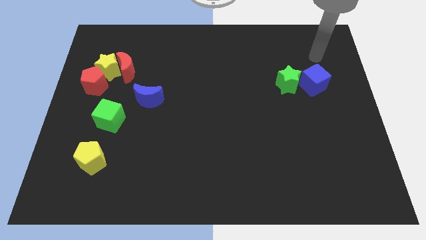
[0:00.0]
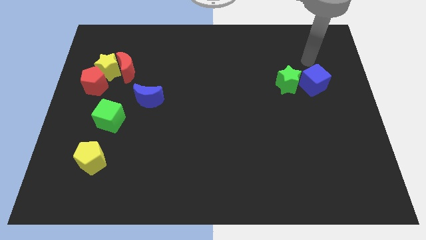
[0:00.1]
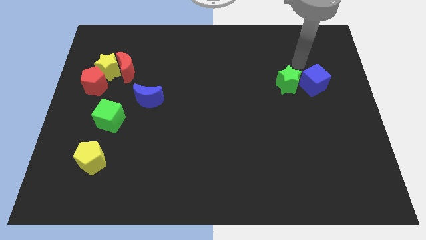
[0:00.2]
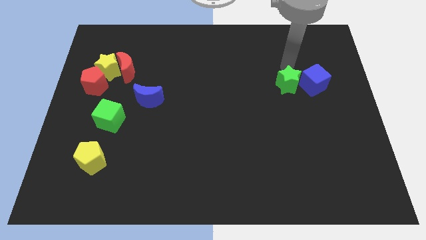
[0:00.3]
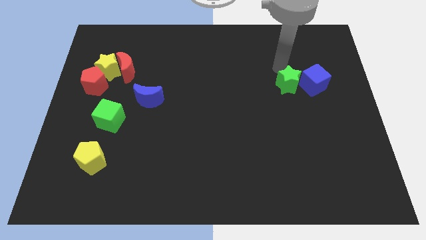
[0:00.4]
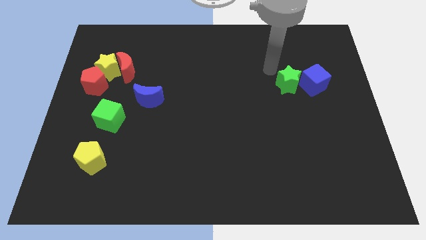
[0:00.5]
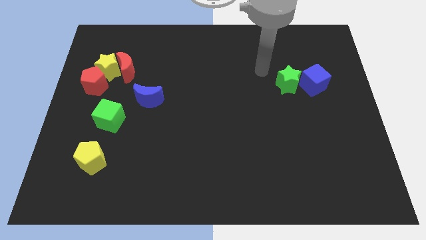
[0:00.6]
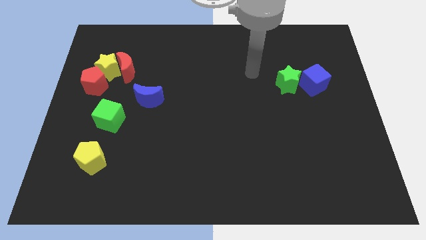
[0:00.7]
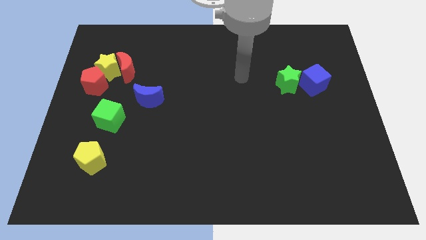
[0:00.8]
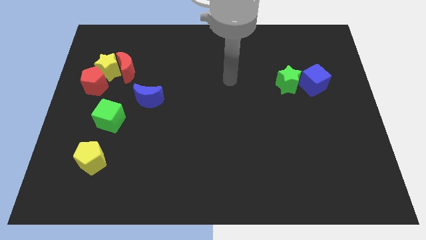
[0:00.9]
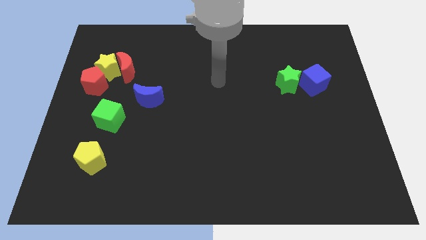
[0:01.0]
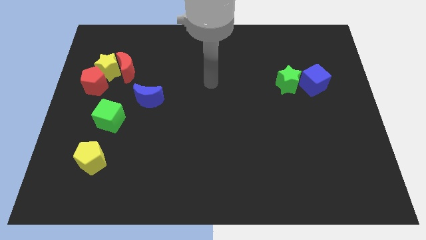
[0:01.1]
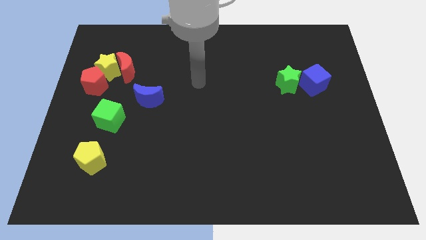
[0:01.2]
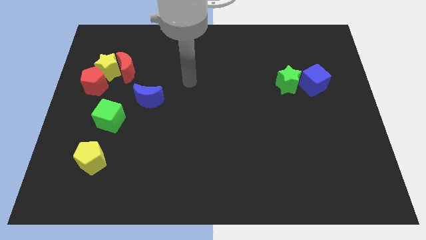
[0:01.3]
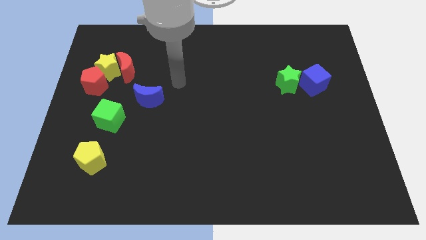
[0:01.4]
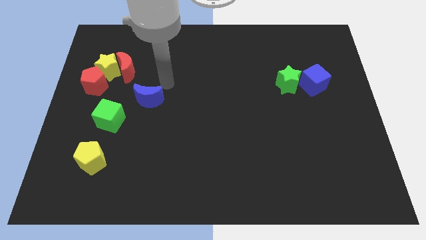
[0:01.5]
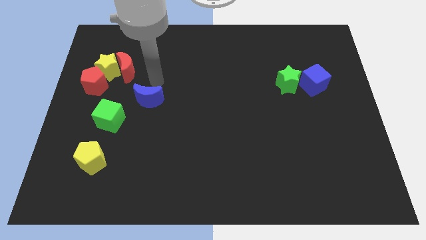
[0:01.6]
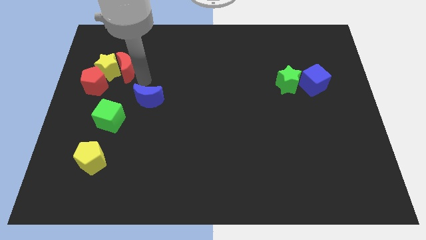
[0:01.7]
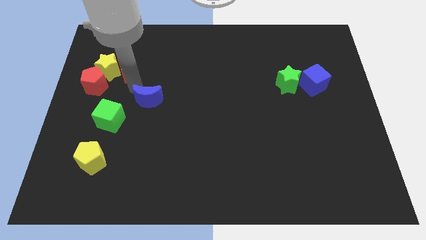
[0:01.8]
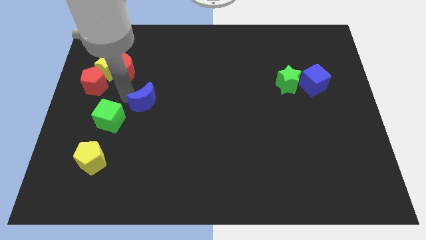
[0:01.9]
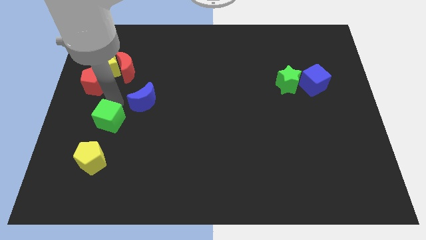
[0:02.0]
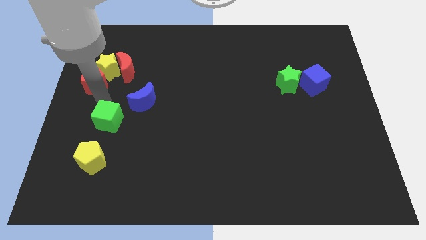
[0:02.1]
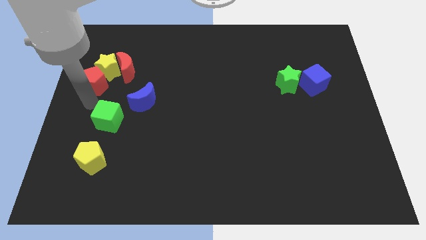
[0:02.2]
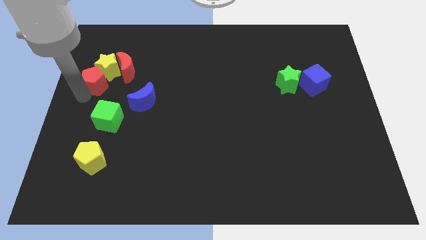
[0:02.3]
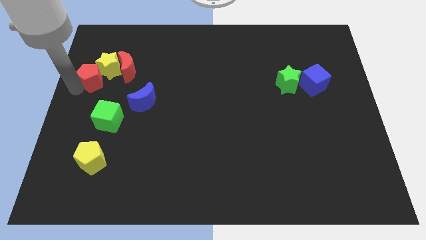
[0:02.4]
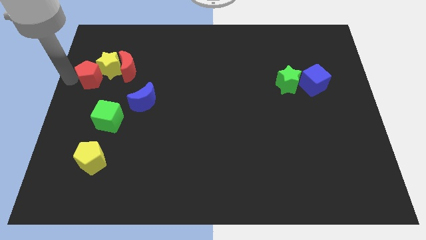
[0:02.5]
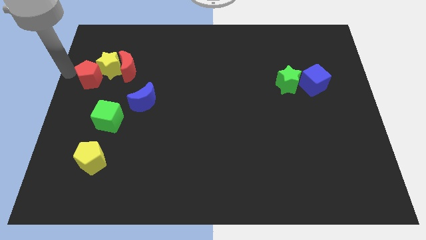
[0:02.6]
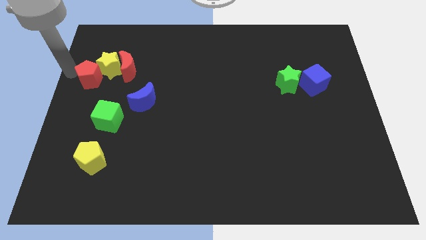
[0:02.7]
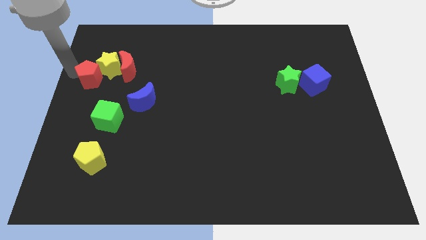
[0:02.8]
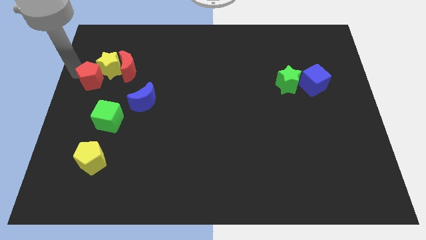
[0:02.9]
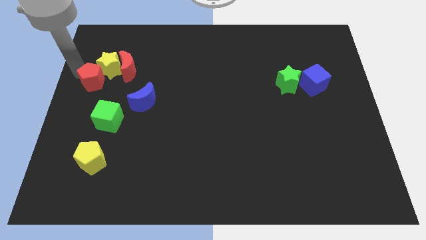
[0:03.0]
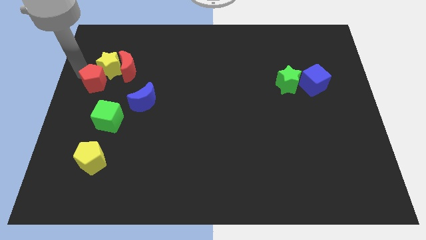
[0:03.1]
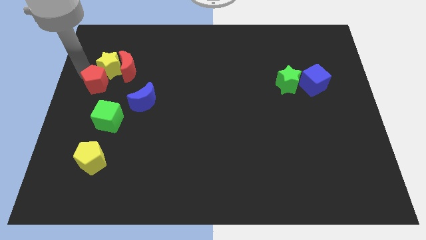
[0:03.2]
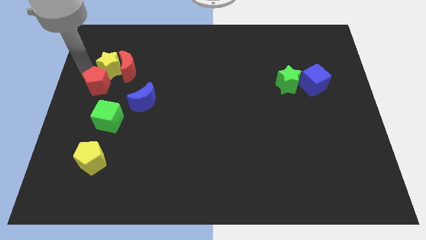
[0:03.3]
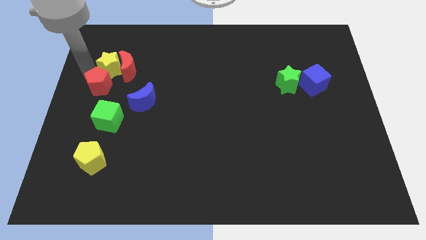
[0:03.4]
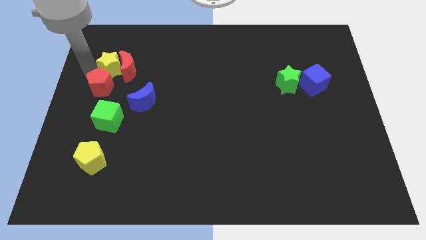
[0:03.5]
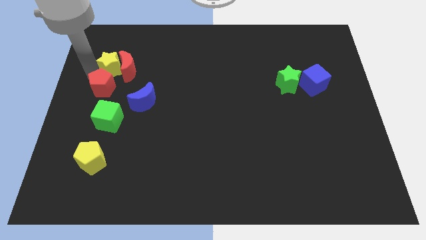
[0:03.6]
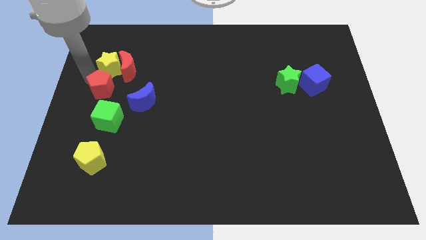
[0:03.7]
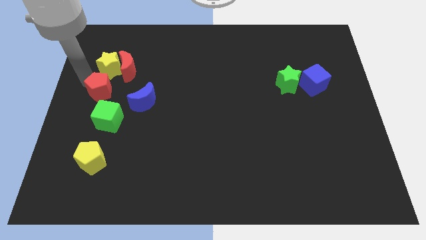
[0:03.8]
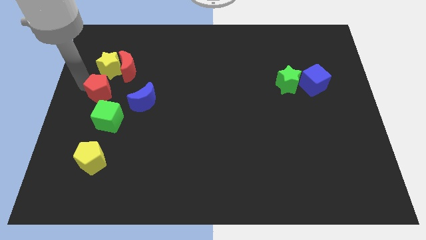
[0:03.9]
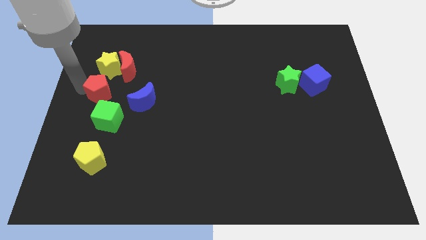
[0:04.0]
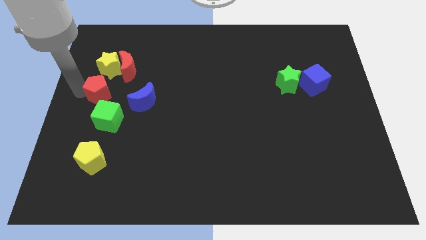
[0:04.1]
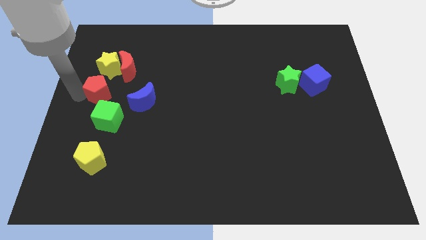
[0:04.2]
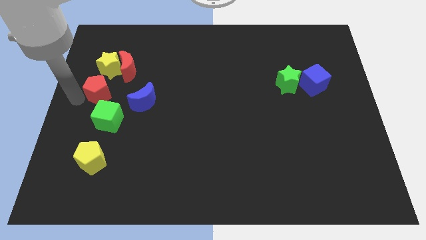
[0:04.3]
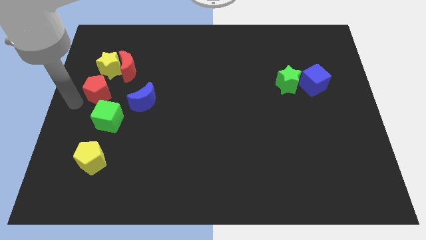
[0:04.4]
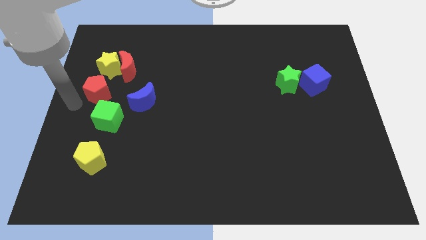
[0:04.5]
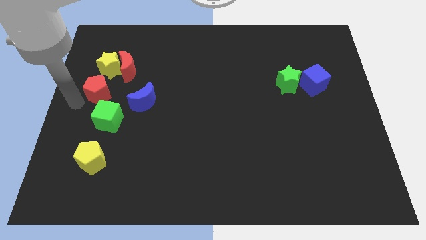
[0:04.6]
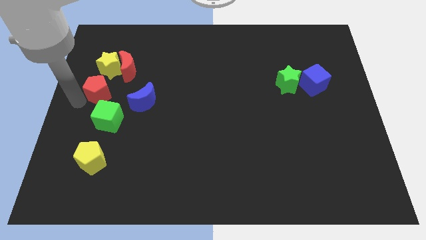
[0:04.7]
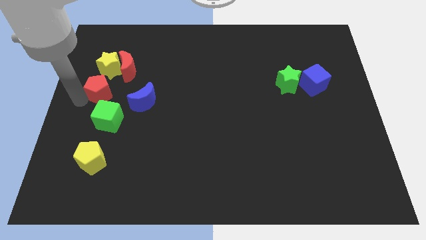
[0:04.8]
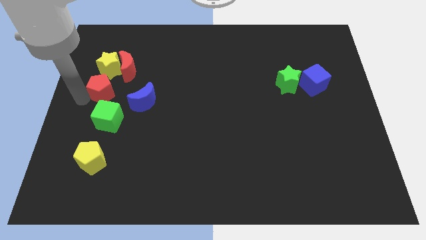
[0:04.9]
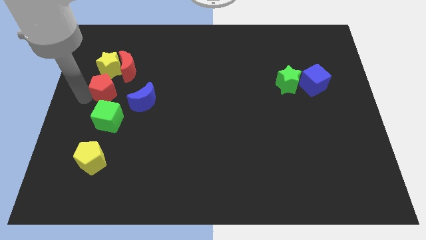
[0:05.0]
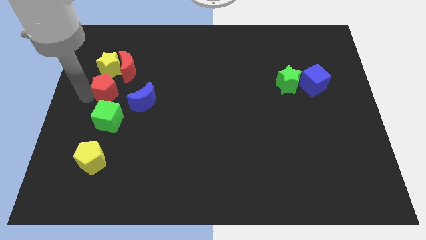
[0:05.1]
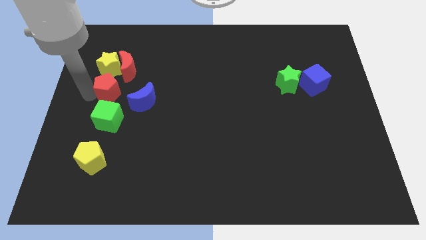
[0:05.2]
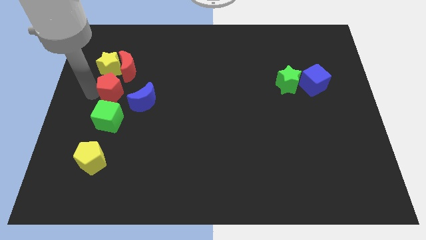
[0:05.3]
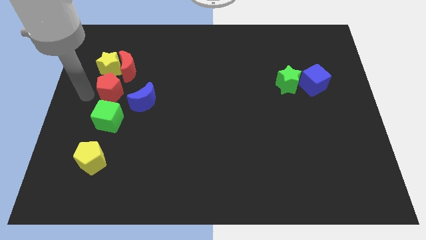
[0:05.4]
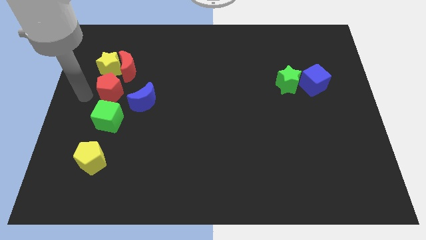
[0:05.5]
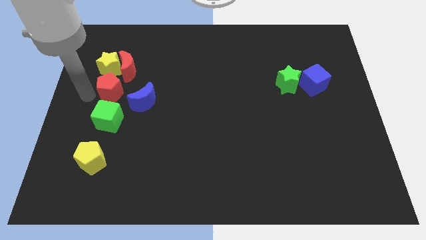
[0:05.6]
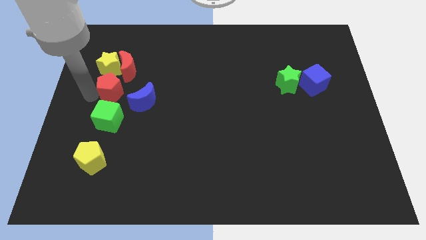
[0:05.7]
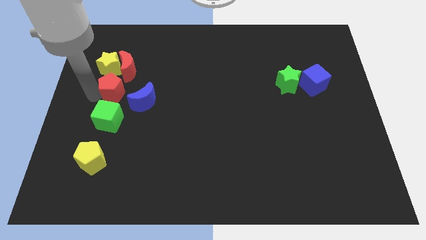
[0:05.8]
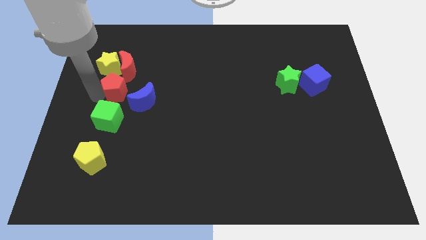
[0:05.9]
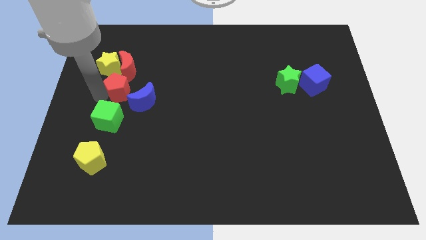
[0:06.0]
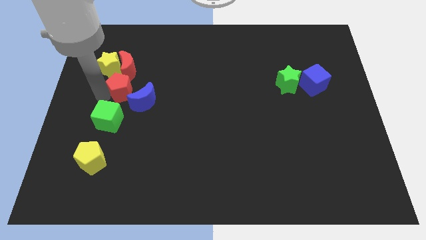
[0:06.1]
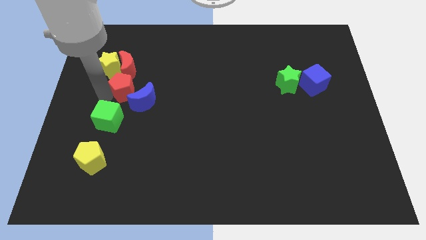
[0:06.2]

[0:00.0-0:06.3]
slightly move the red pentagon to the right

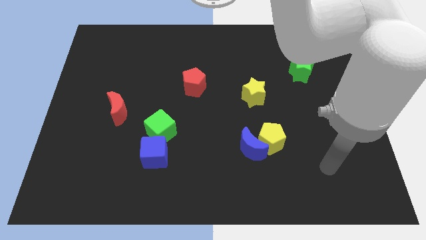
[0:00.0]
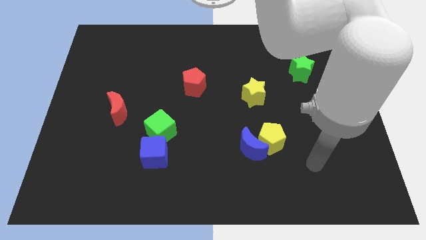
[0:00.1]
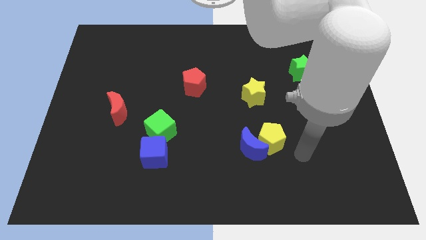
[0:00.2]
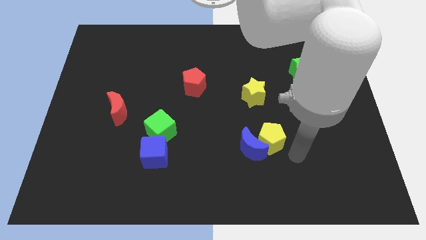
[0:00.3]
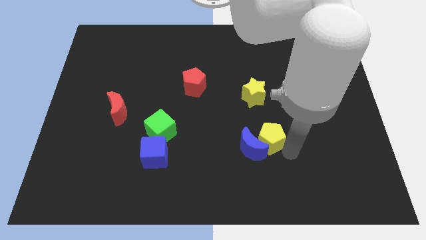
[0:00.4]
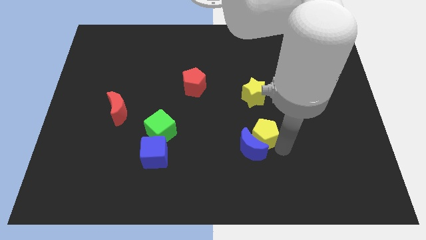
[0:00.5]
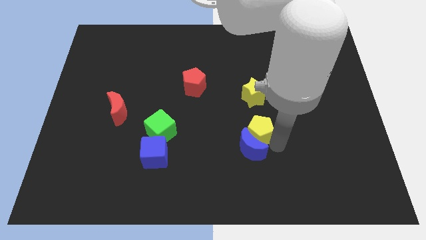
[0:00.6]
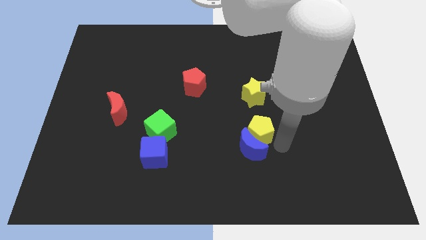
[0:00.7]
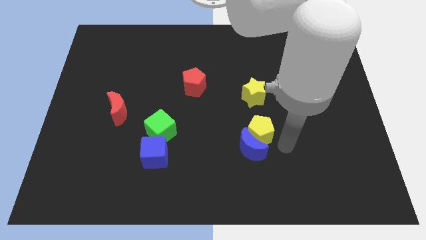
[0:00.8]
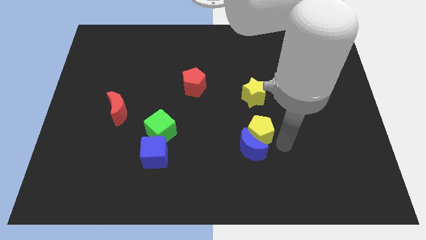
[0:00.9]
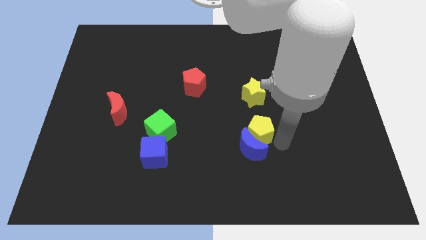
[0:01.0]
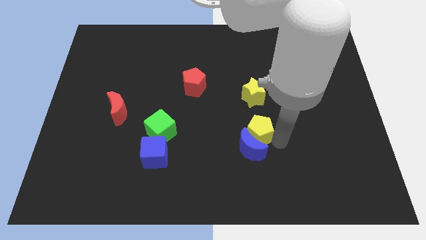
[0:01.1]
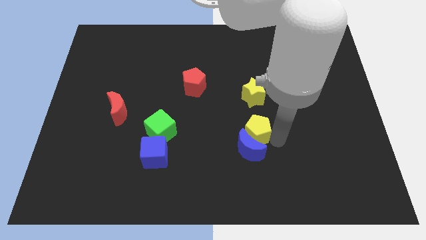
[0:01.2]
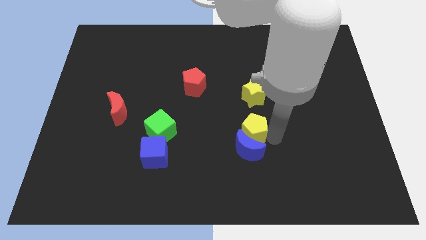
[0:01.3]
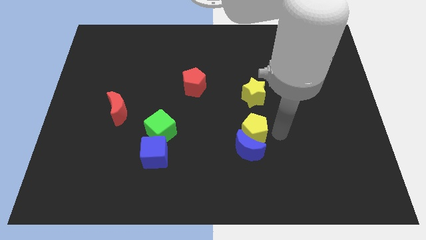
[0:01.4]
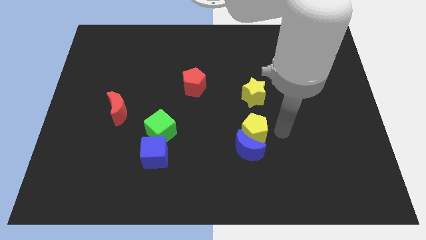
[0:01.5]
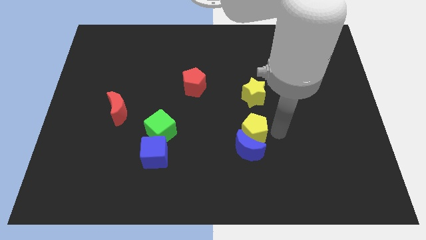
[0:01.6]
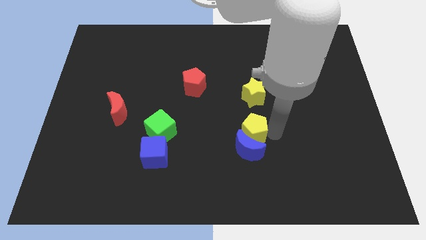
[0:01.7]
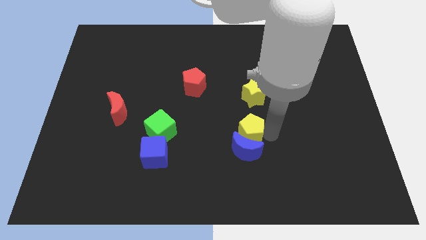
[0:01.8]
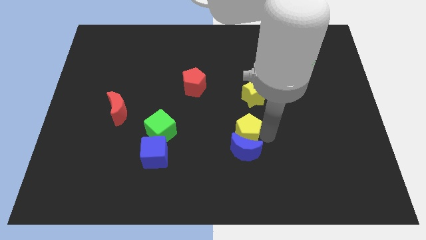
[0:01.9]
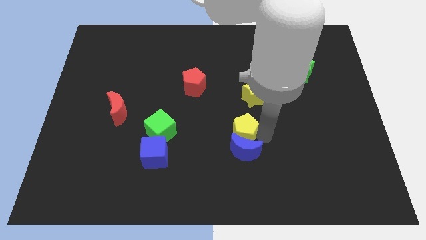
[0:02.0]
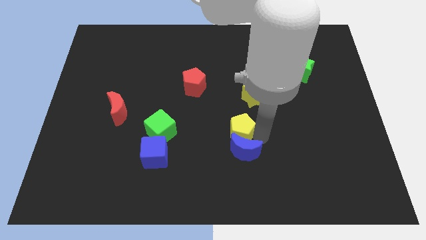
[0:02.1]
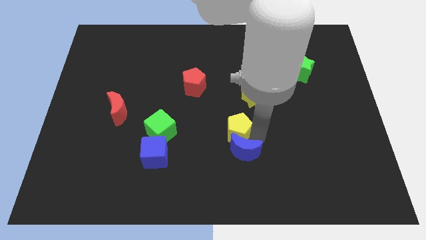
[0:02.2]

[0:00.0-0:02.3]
slightly slide the yellow pentagon to the left
